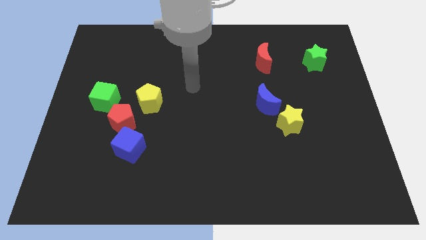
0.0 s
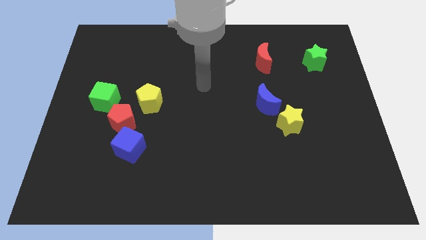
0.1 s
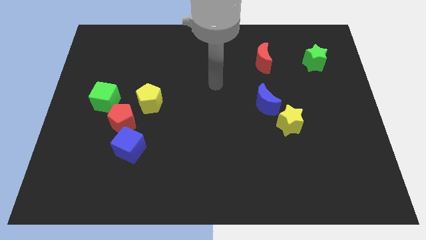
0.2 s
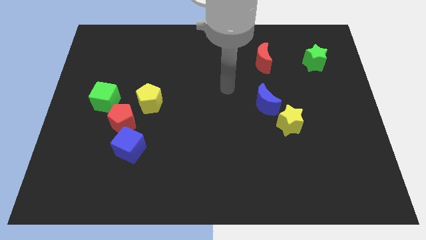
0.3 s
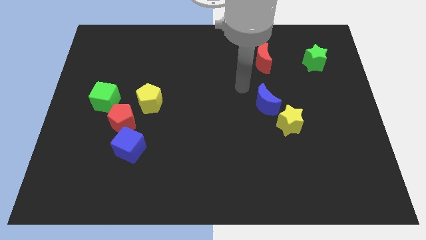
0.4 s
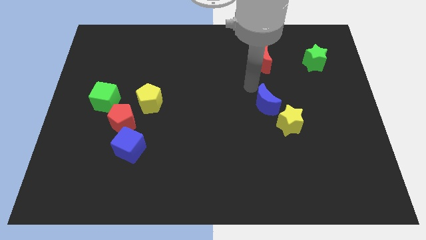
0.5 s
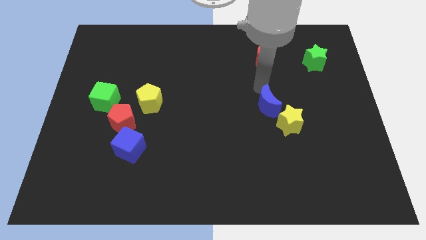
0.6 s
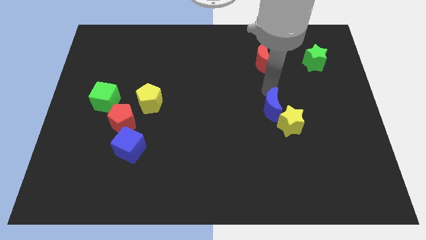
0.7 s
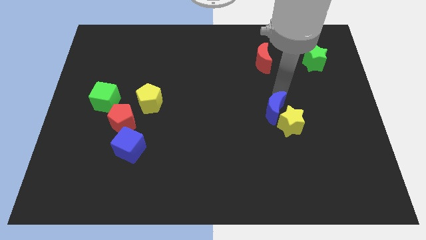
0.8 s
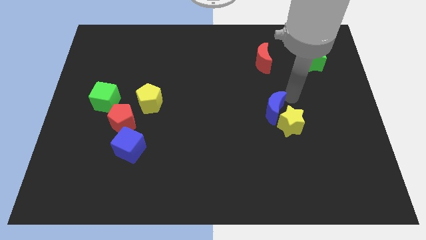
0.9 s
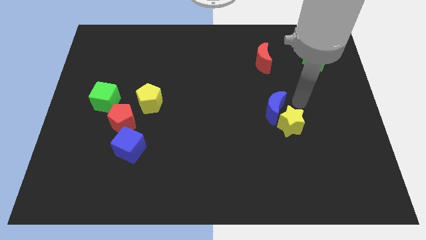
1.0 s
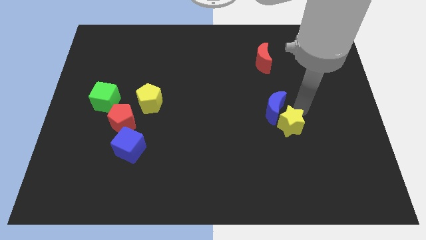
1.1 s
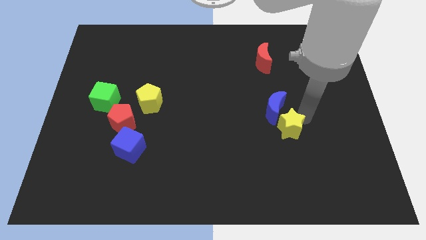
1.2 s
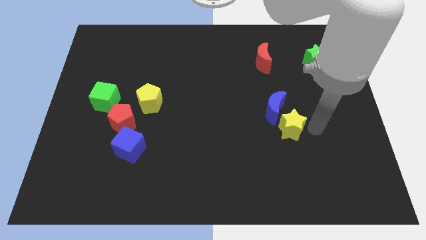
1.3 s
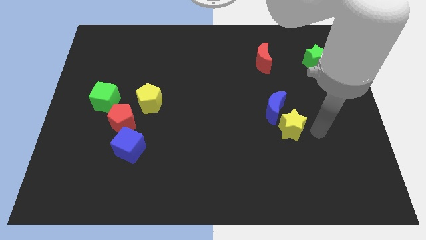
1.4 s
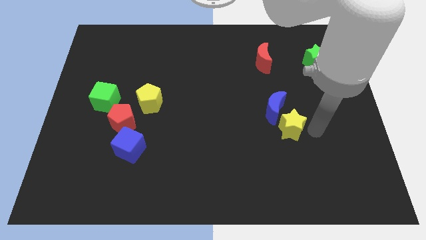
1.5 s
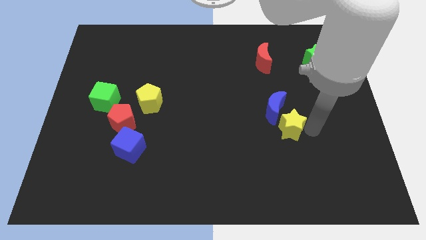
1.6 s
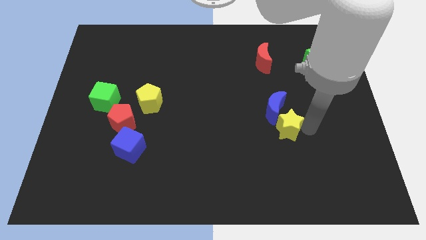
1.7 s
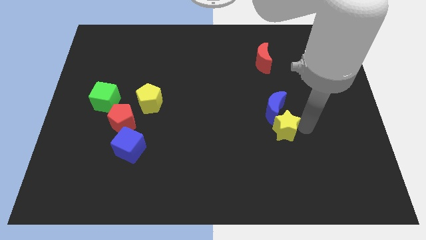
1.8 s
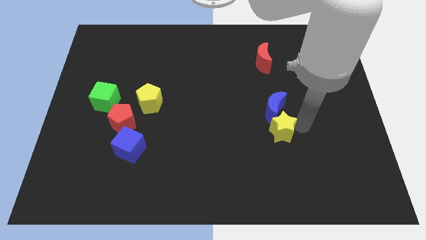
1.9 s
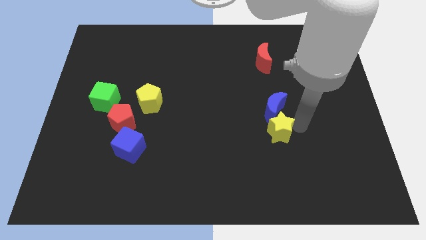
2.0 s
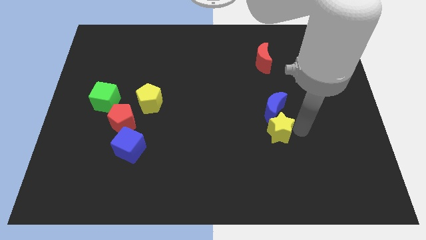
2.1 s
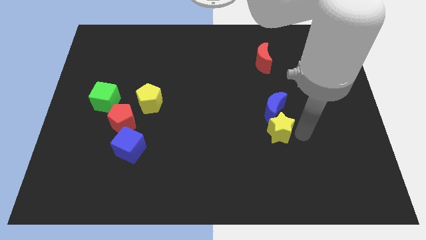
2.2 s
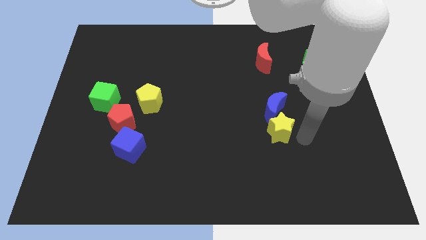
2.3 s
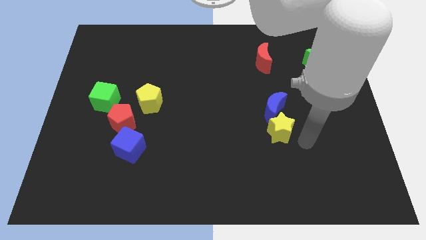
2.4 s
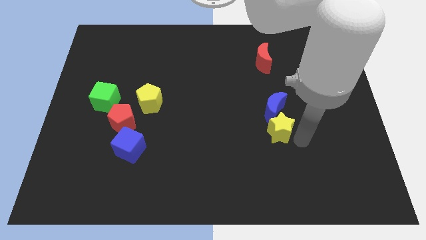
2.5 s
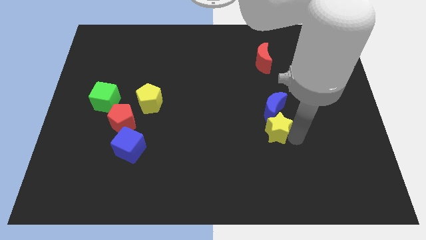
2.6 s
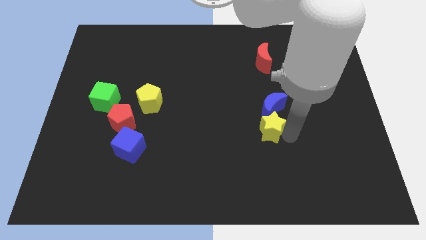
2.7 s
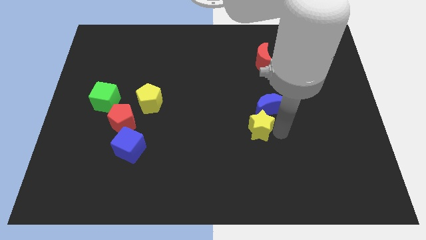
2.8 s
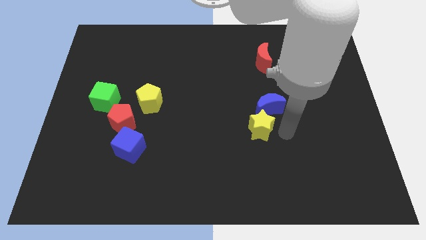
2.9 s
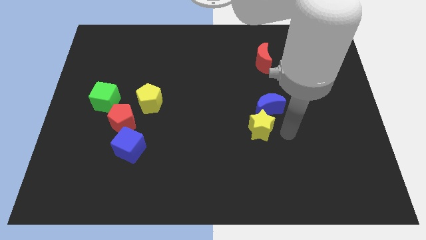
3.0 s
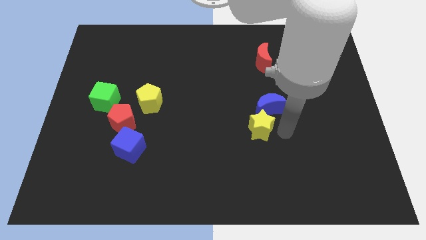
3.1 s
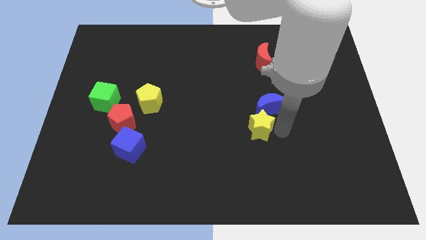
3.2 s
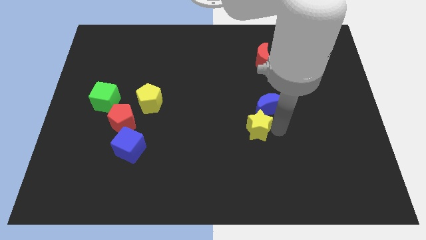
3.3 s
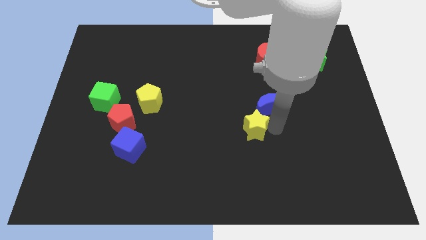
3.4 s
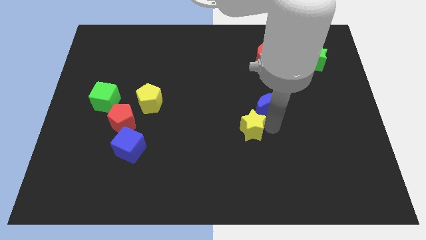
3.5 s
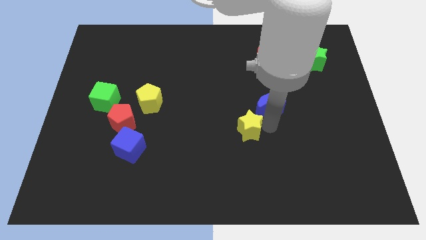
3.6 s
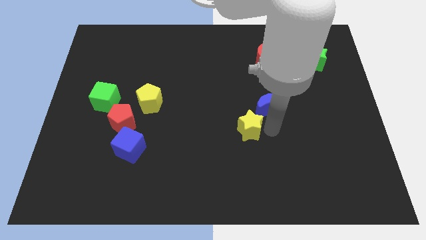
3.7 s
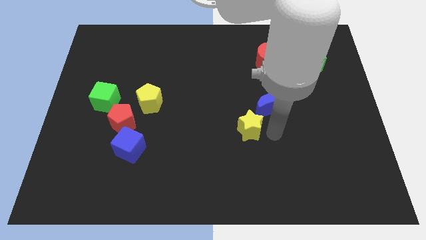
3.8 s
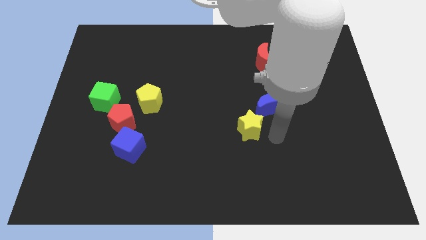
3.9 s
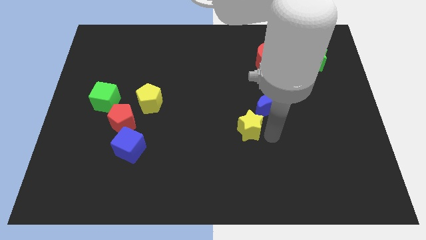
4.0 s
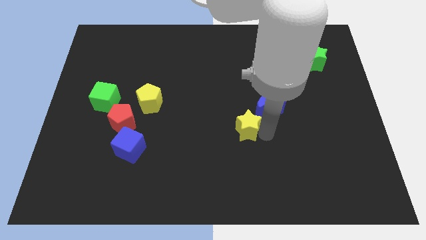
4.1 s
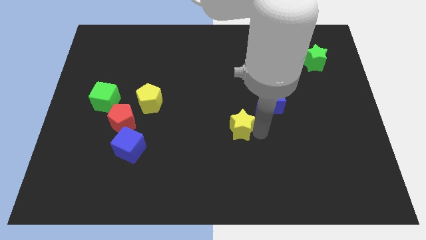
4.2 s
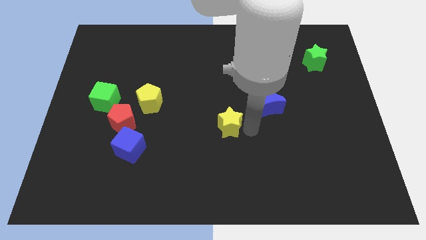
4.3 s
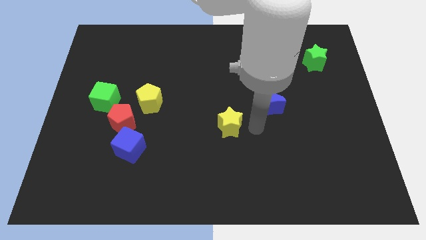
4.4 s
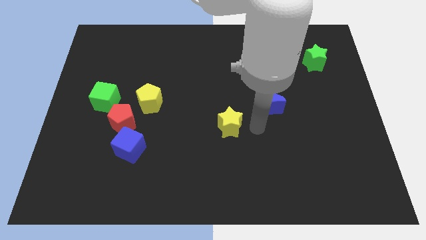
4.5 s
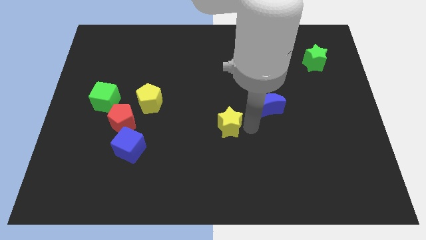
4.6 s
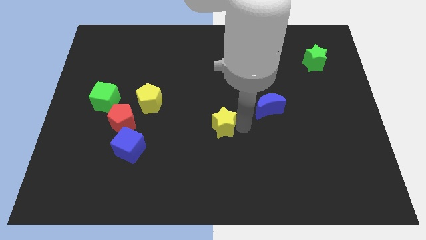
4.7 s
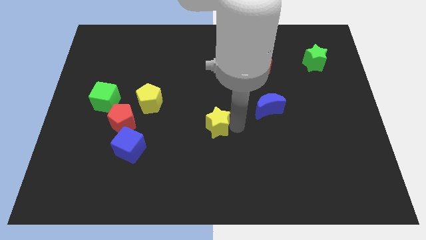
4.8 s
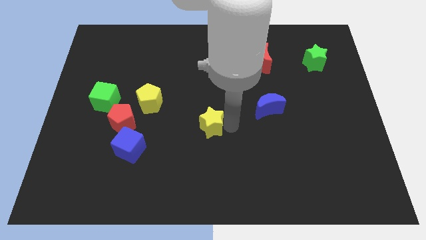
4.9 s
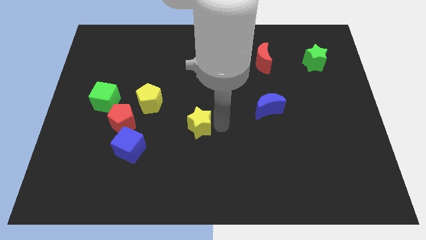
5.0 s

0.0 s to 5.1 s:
push the yellow star to the left

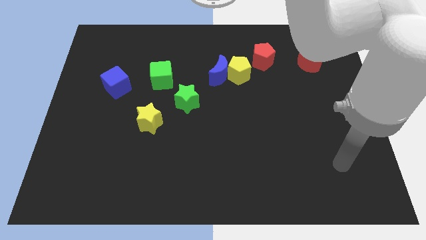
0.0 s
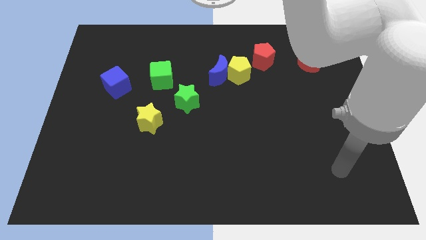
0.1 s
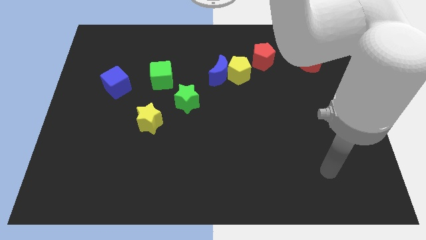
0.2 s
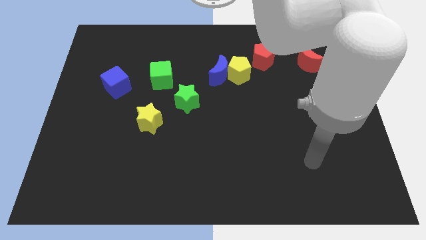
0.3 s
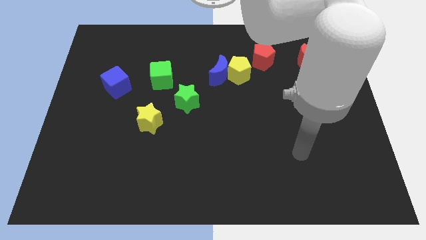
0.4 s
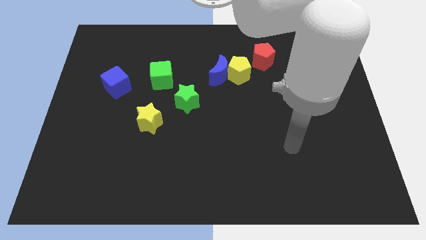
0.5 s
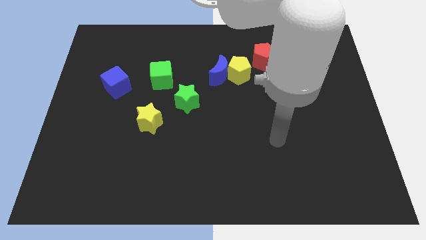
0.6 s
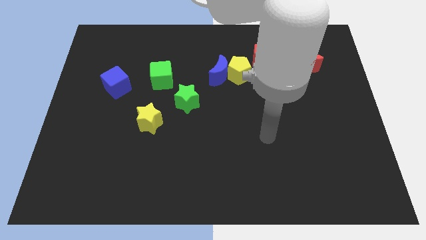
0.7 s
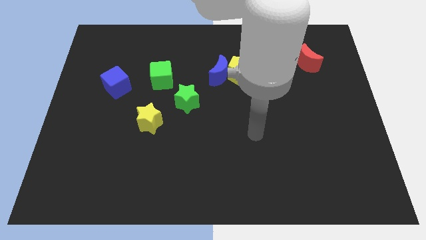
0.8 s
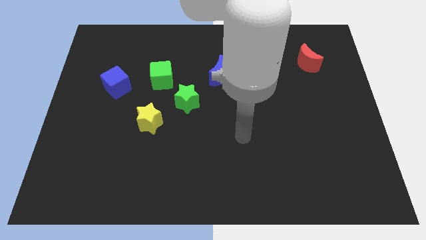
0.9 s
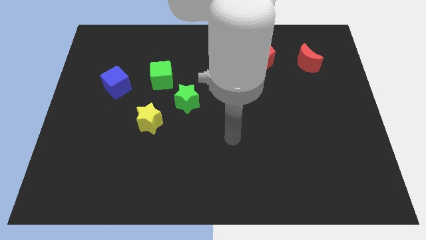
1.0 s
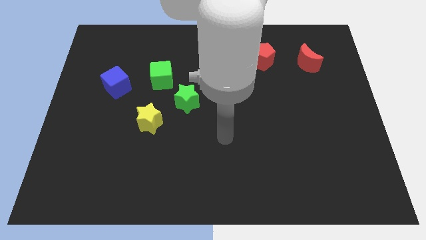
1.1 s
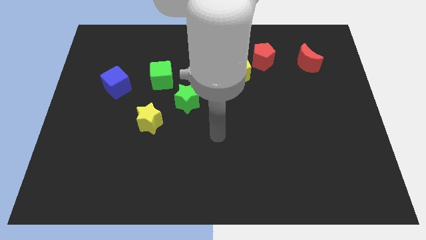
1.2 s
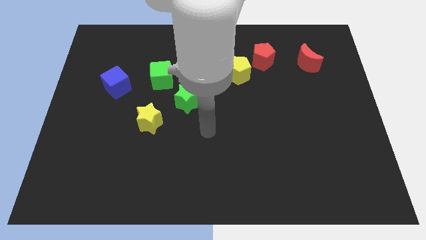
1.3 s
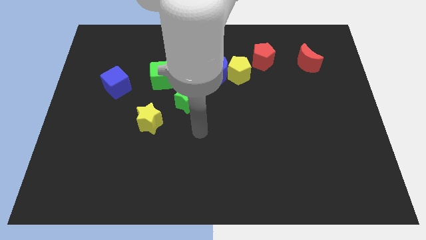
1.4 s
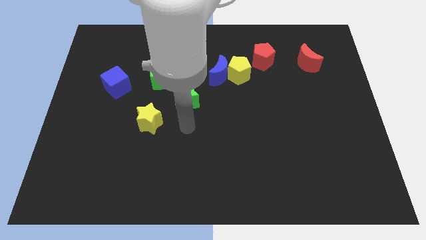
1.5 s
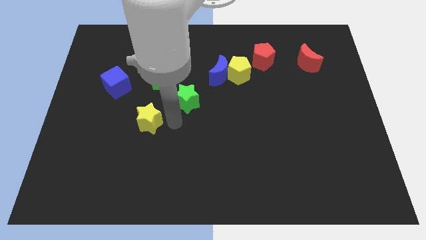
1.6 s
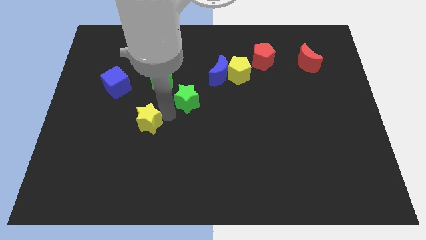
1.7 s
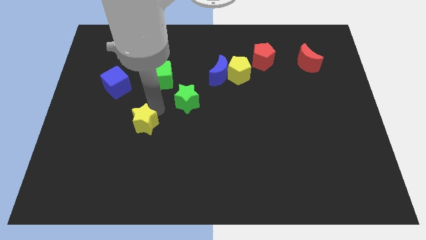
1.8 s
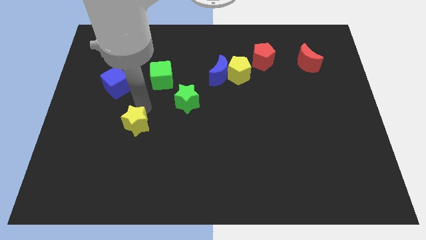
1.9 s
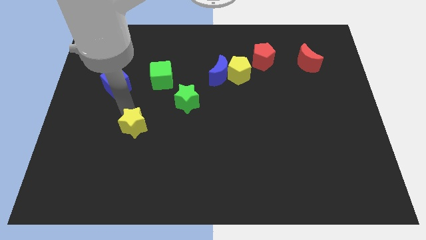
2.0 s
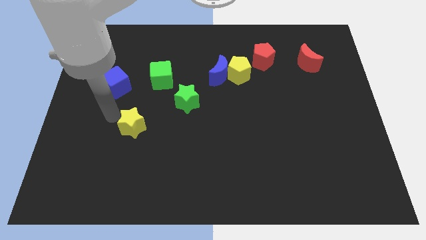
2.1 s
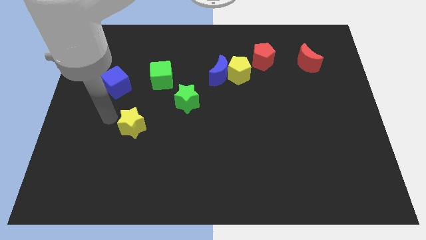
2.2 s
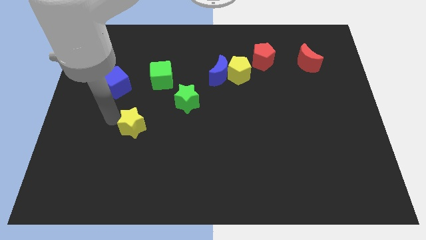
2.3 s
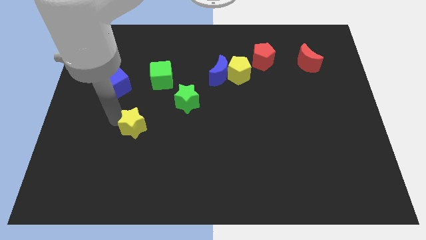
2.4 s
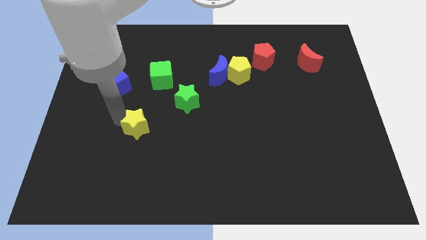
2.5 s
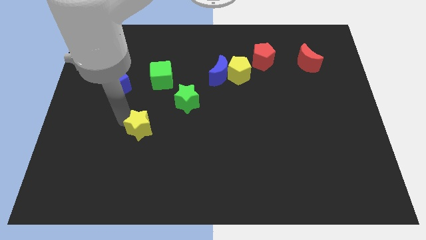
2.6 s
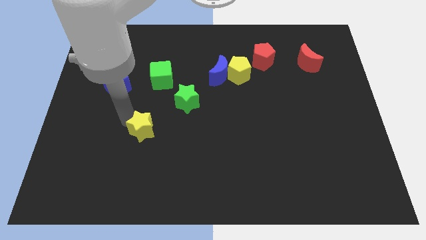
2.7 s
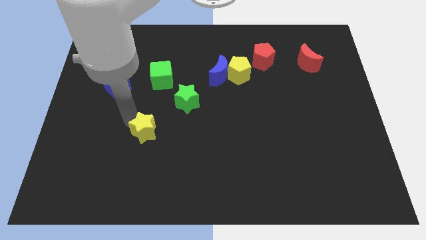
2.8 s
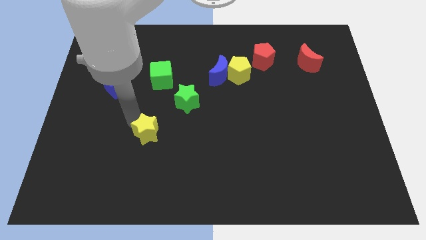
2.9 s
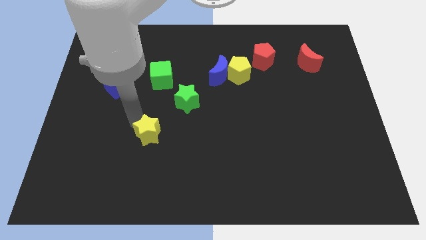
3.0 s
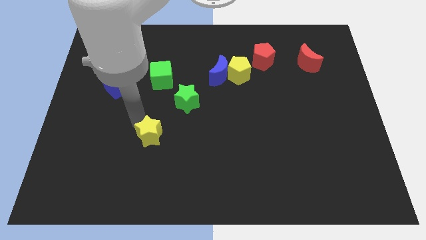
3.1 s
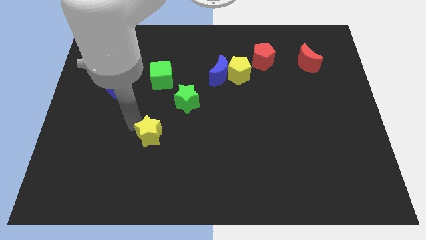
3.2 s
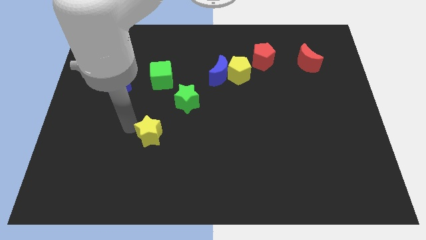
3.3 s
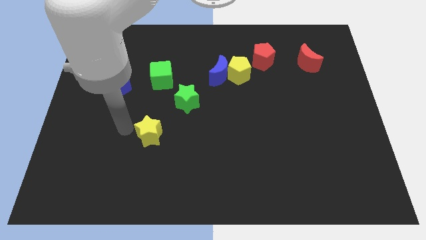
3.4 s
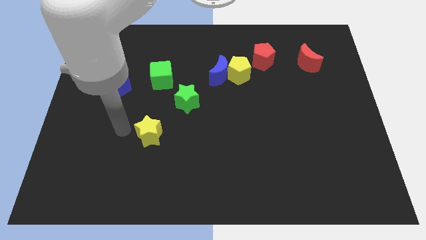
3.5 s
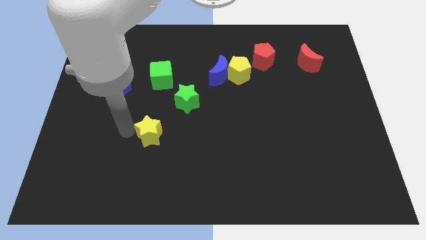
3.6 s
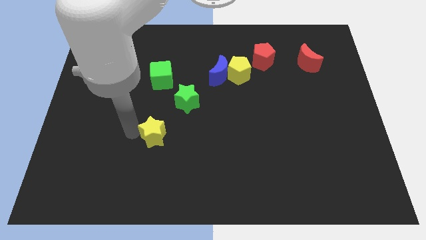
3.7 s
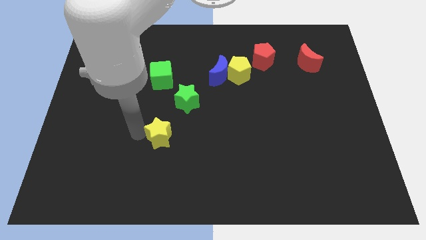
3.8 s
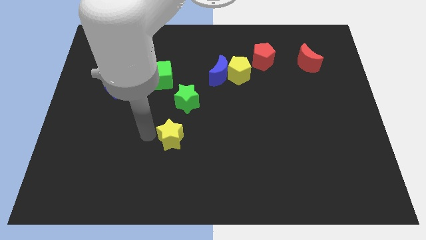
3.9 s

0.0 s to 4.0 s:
slightly push the yellow star down and then to the right
